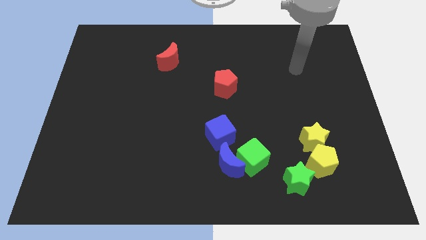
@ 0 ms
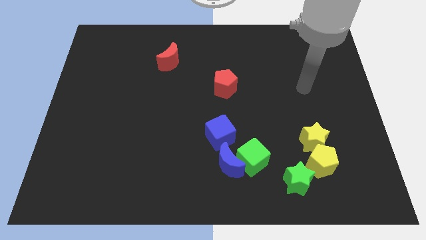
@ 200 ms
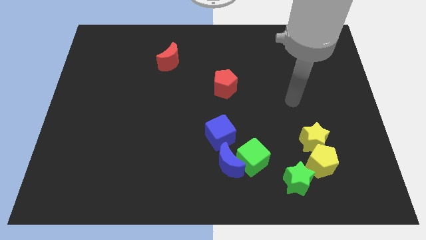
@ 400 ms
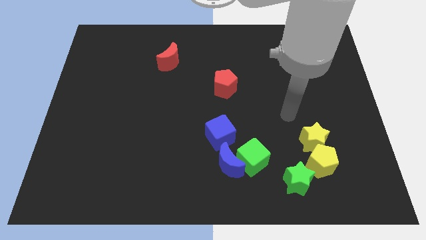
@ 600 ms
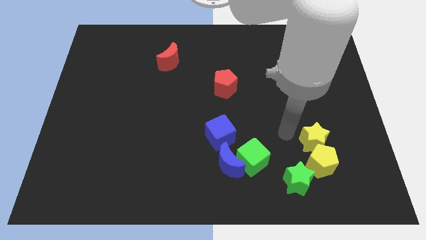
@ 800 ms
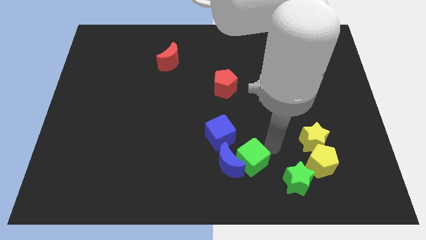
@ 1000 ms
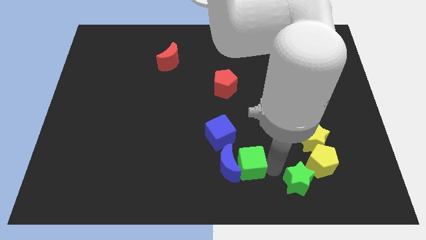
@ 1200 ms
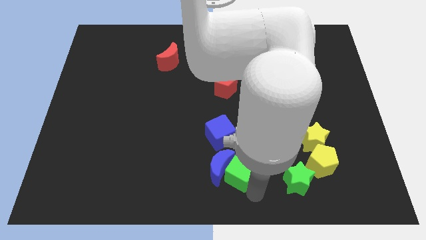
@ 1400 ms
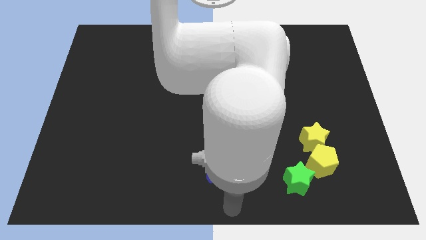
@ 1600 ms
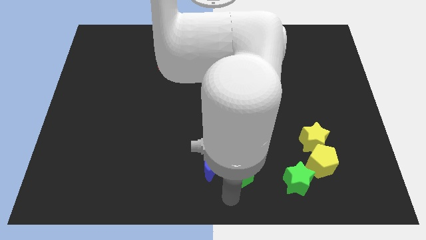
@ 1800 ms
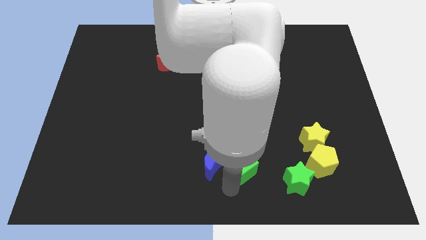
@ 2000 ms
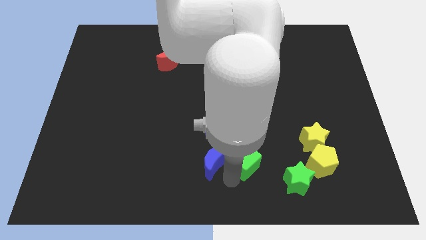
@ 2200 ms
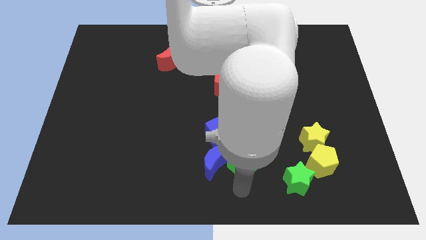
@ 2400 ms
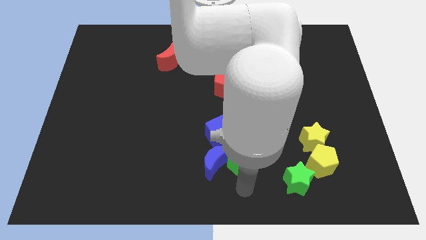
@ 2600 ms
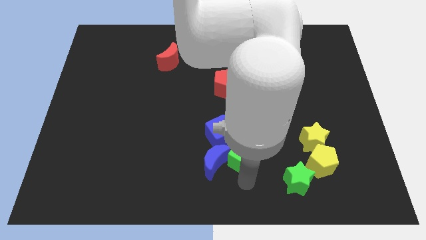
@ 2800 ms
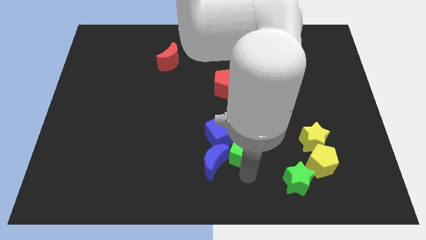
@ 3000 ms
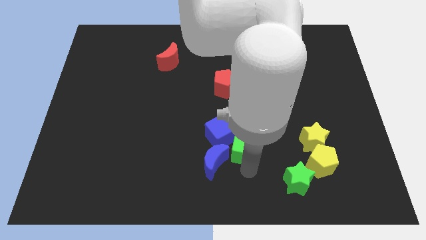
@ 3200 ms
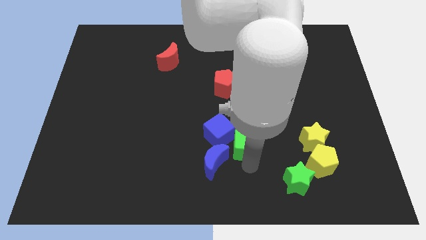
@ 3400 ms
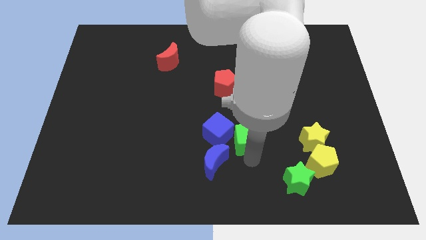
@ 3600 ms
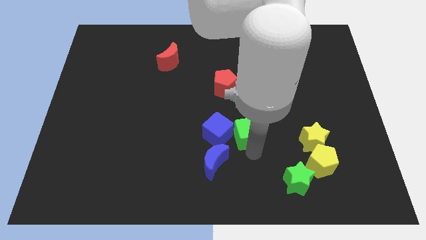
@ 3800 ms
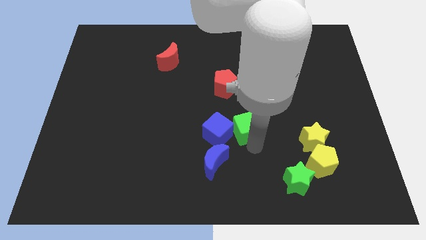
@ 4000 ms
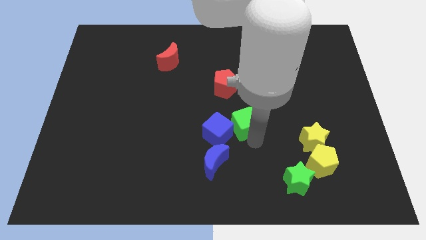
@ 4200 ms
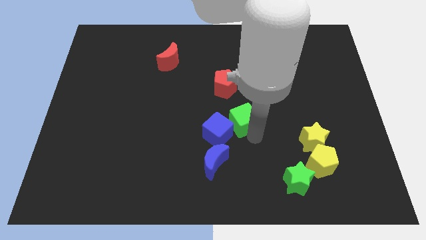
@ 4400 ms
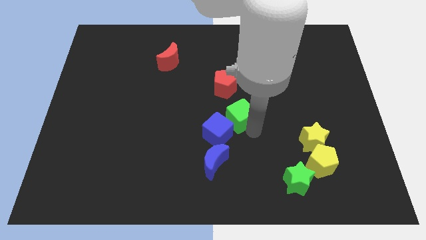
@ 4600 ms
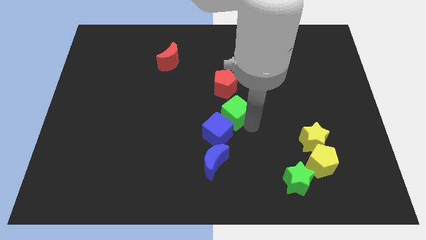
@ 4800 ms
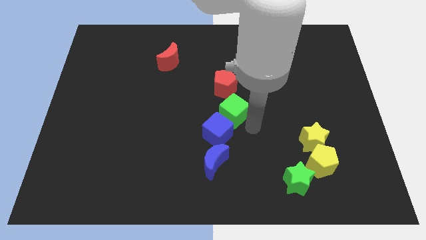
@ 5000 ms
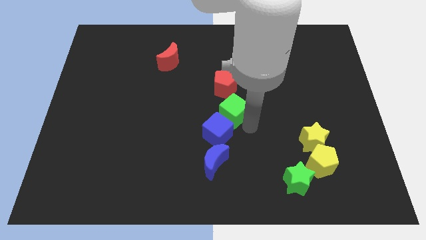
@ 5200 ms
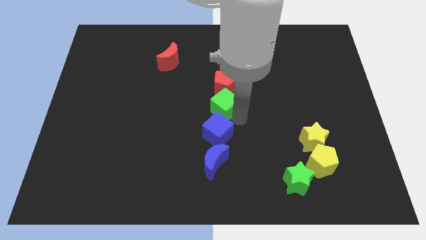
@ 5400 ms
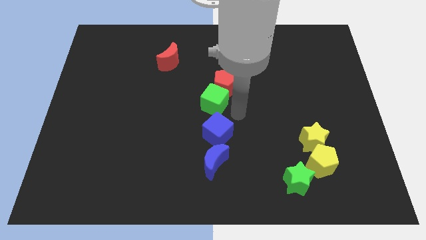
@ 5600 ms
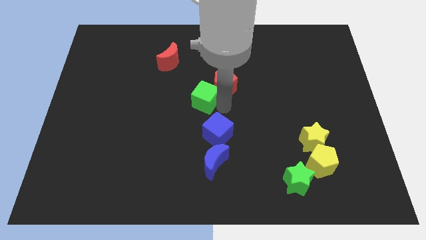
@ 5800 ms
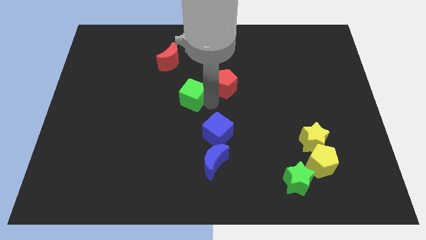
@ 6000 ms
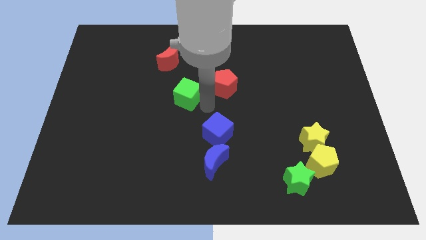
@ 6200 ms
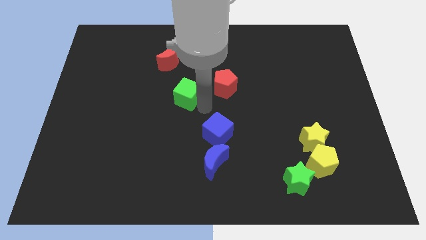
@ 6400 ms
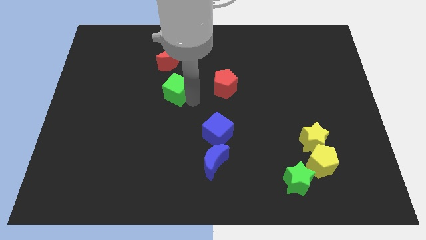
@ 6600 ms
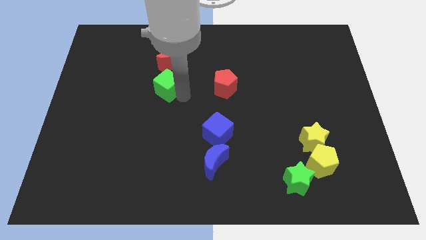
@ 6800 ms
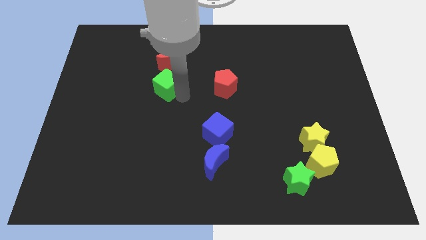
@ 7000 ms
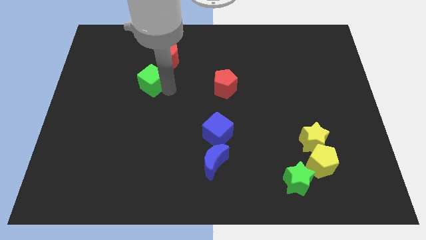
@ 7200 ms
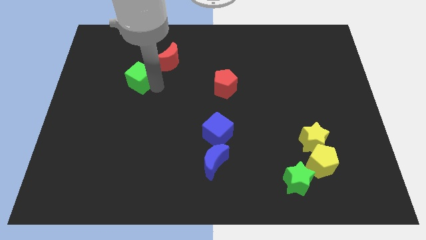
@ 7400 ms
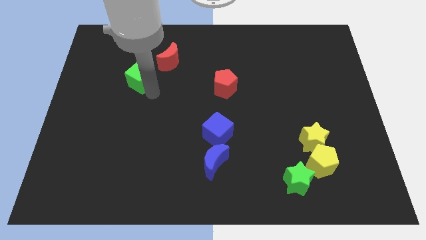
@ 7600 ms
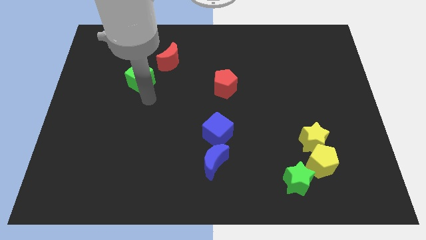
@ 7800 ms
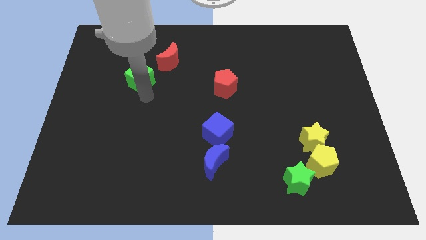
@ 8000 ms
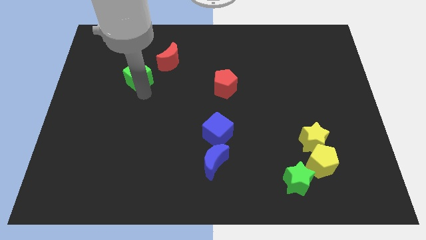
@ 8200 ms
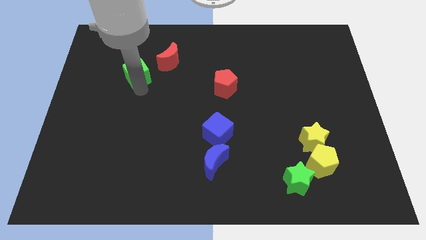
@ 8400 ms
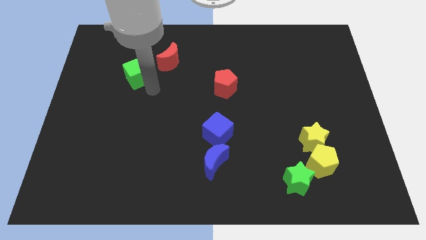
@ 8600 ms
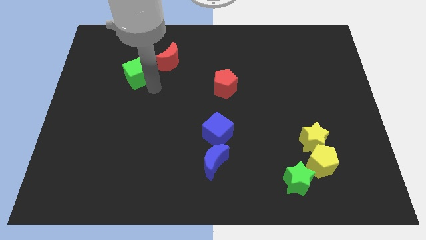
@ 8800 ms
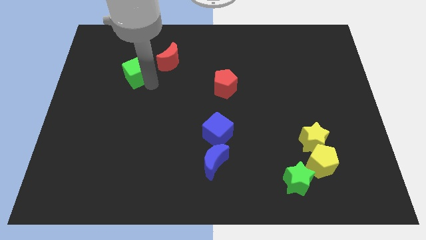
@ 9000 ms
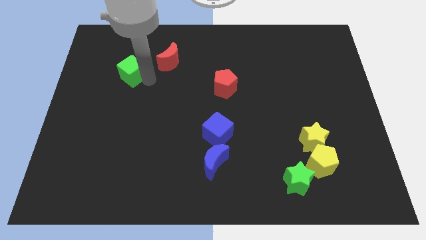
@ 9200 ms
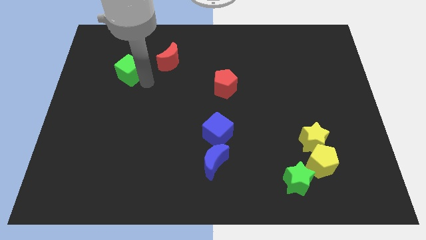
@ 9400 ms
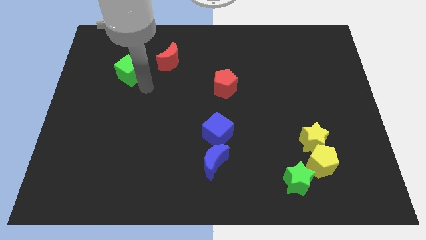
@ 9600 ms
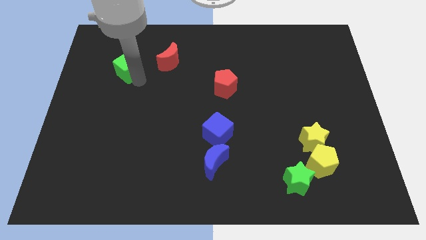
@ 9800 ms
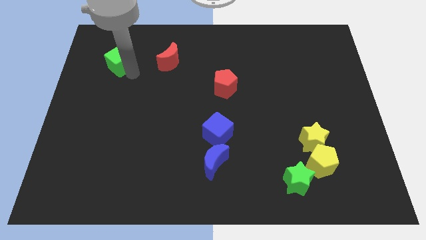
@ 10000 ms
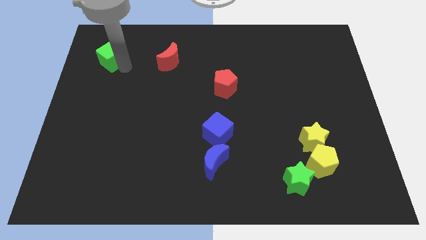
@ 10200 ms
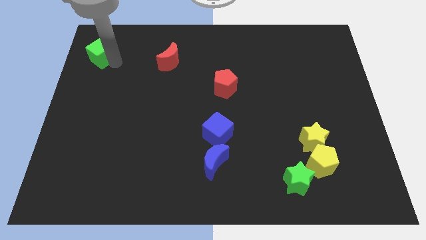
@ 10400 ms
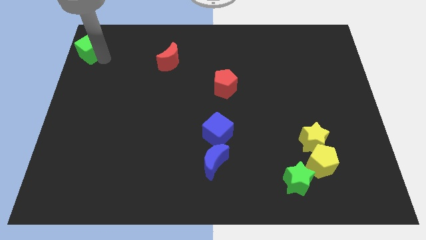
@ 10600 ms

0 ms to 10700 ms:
push the green cube to the top left of the board

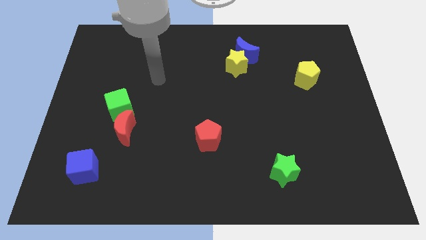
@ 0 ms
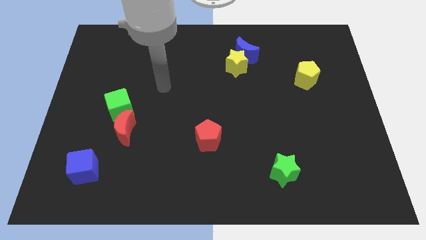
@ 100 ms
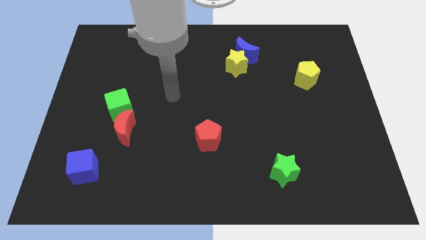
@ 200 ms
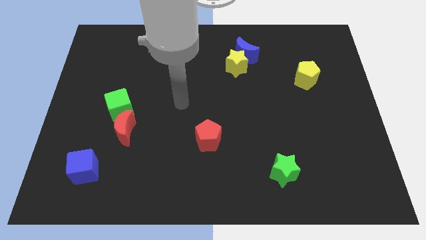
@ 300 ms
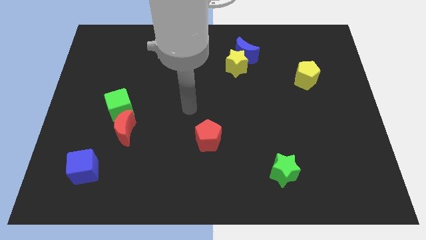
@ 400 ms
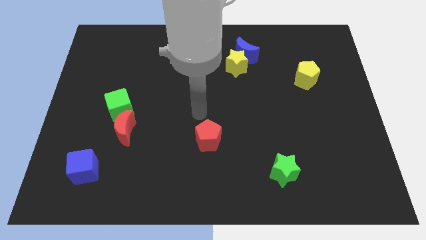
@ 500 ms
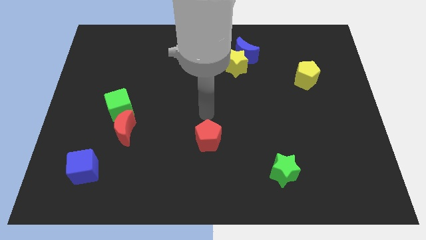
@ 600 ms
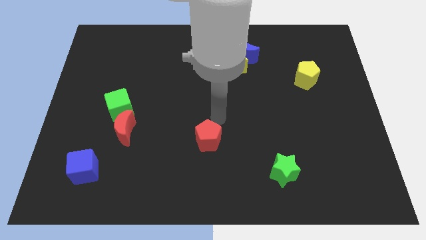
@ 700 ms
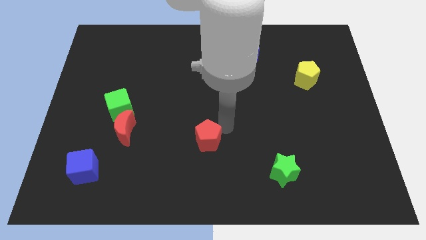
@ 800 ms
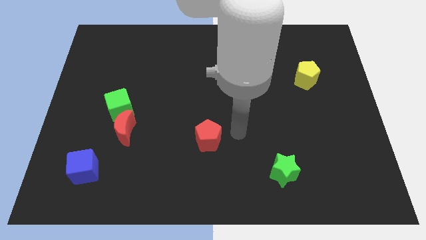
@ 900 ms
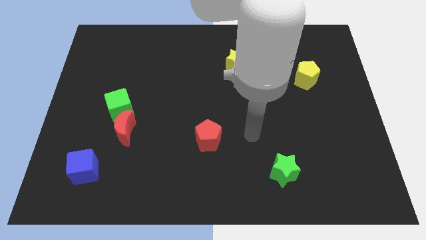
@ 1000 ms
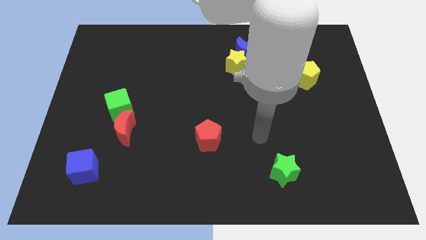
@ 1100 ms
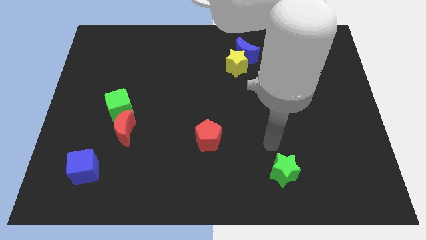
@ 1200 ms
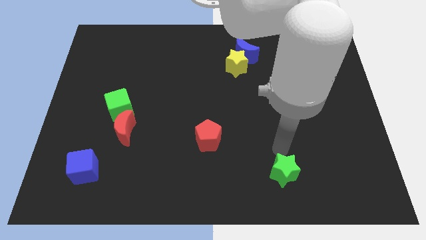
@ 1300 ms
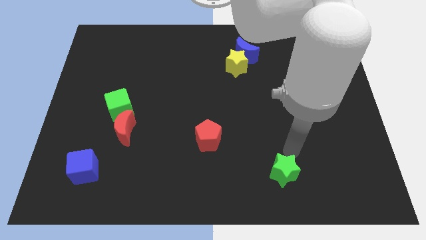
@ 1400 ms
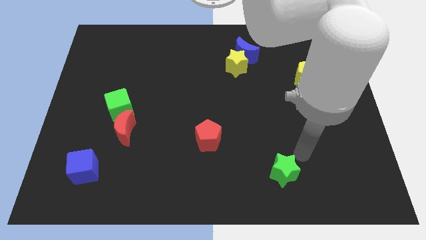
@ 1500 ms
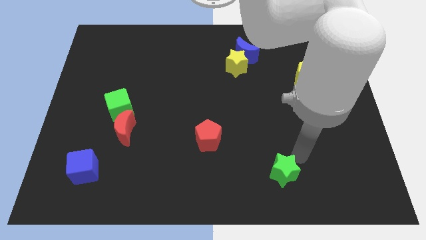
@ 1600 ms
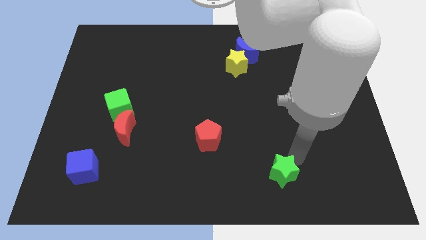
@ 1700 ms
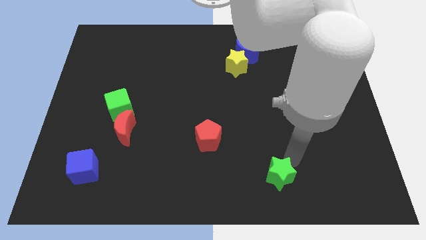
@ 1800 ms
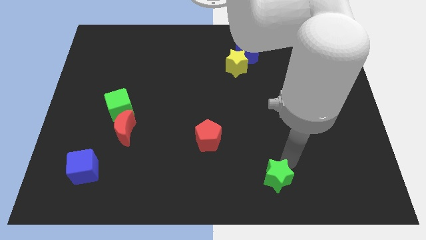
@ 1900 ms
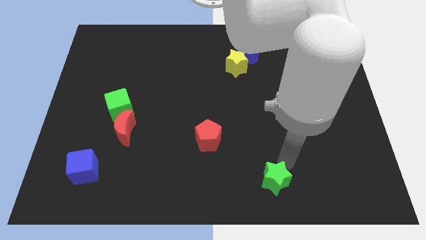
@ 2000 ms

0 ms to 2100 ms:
put the green star to the bottom
